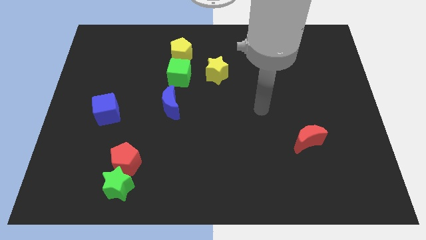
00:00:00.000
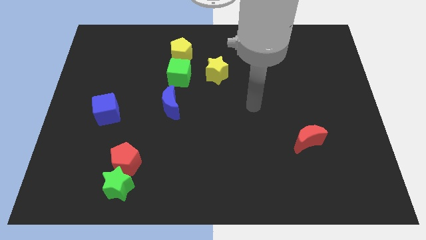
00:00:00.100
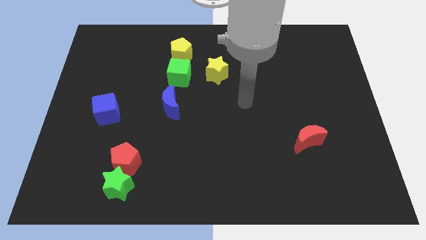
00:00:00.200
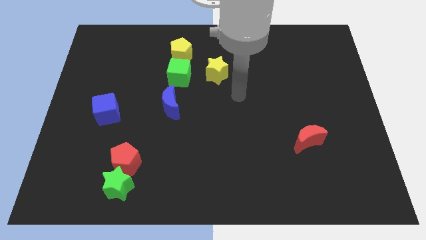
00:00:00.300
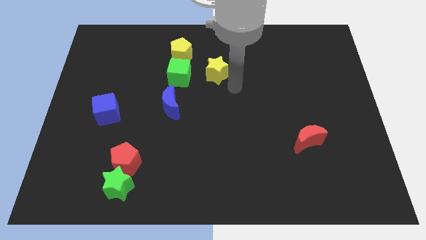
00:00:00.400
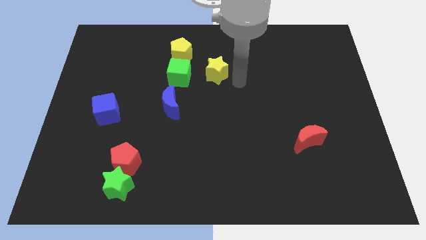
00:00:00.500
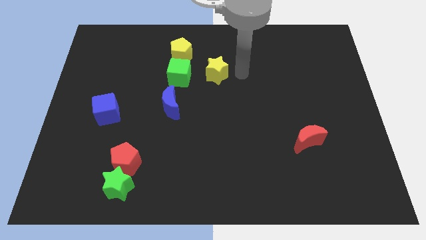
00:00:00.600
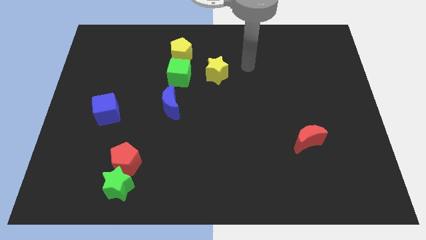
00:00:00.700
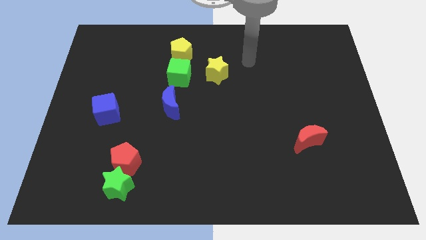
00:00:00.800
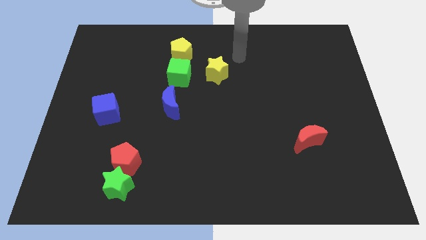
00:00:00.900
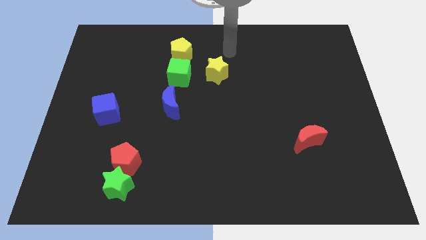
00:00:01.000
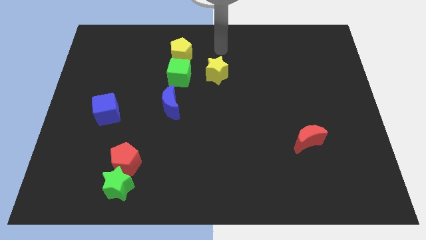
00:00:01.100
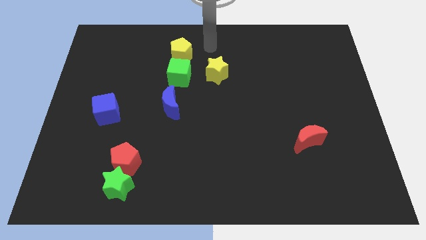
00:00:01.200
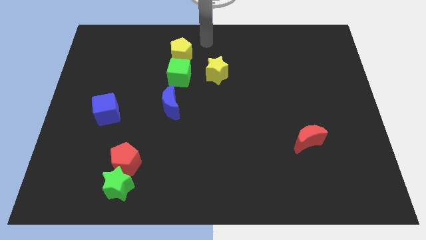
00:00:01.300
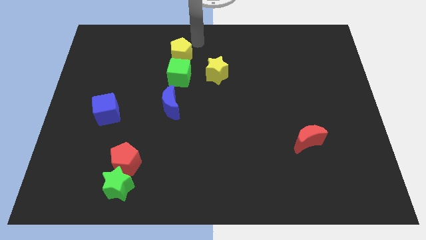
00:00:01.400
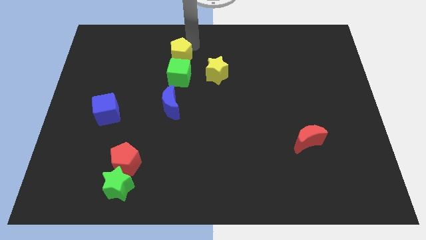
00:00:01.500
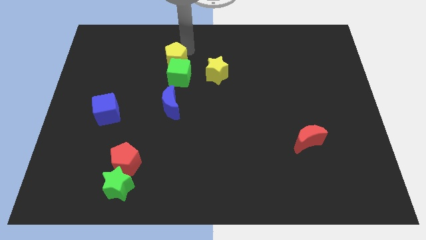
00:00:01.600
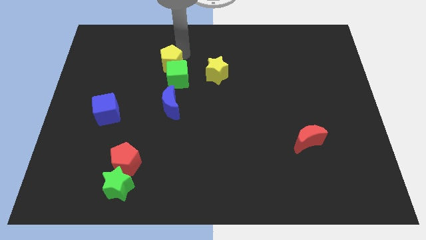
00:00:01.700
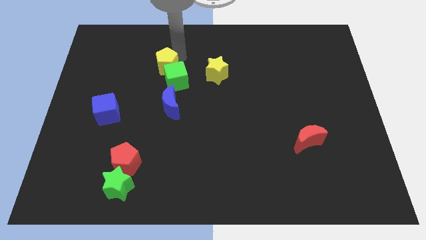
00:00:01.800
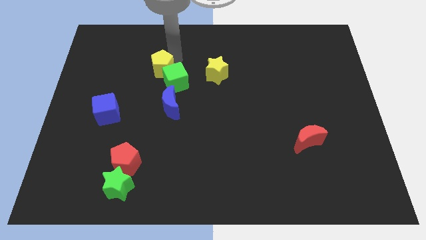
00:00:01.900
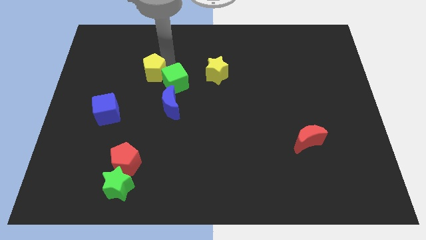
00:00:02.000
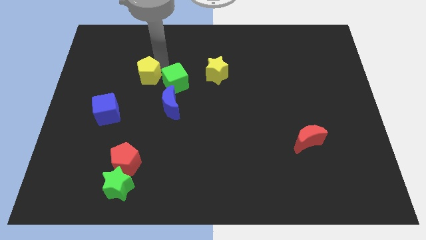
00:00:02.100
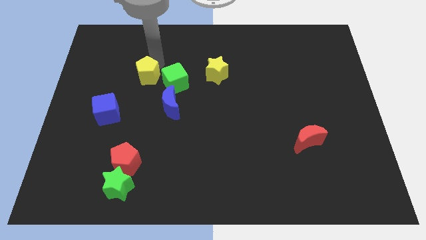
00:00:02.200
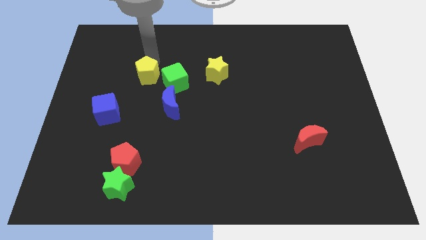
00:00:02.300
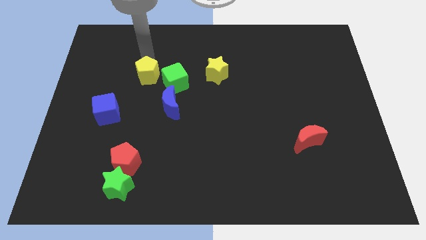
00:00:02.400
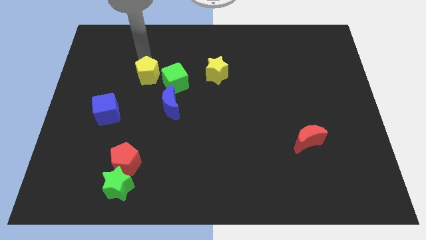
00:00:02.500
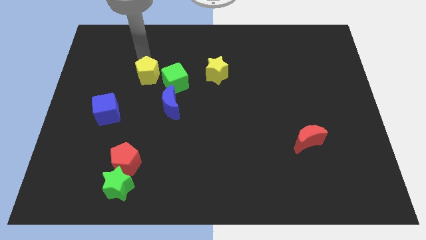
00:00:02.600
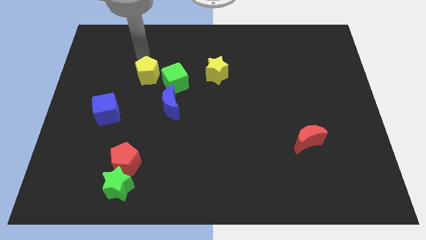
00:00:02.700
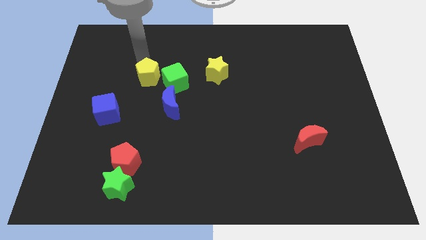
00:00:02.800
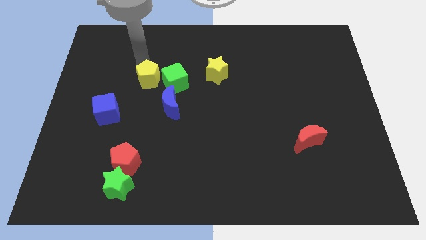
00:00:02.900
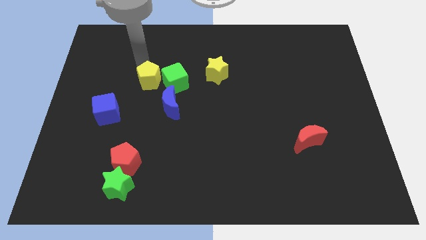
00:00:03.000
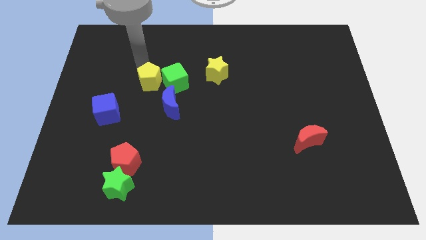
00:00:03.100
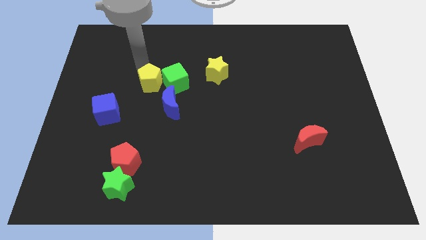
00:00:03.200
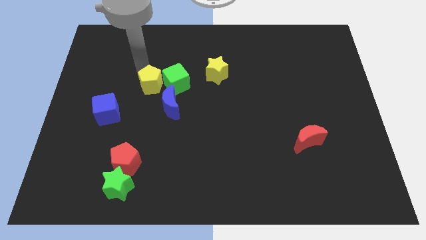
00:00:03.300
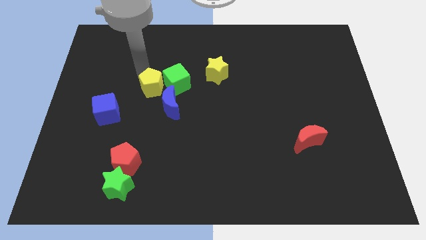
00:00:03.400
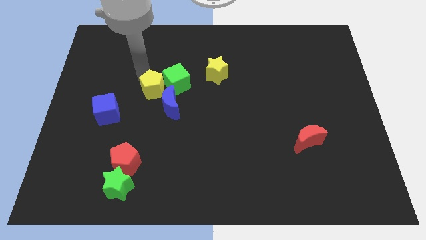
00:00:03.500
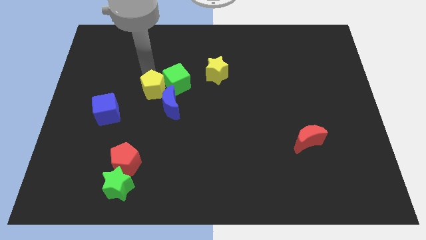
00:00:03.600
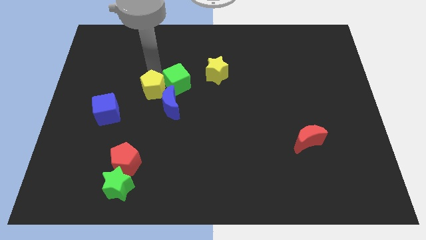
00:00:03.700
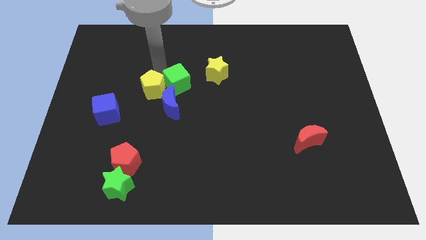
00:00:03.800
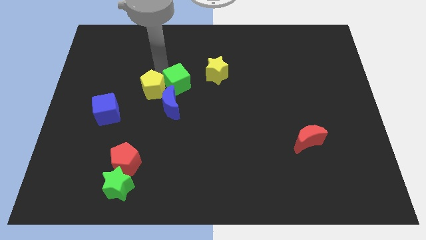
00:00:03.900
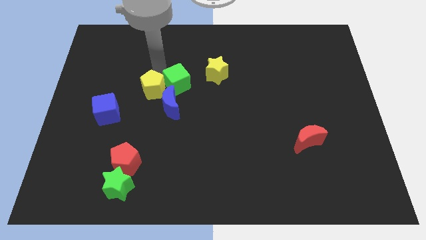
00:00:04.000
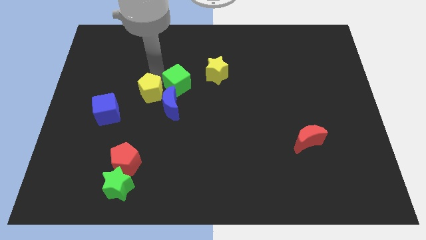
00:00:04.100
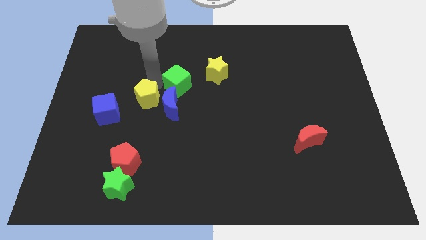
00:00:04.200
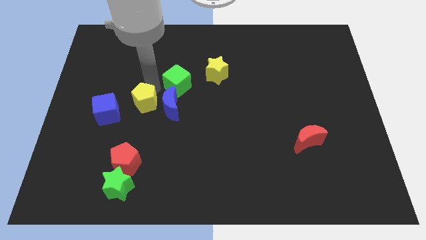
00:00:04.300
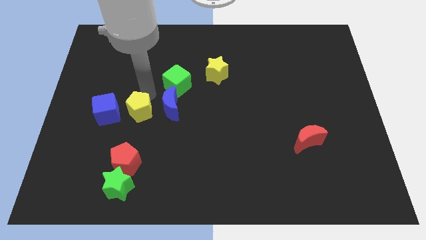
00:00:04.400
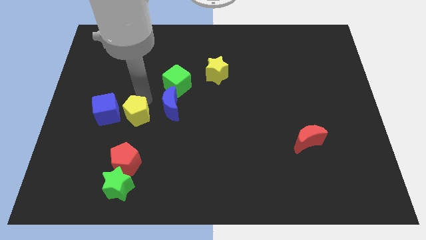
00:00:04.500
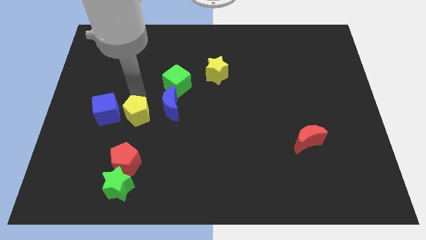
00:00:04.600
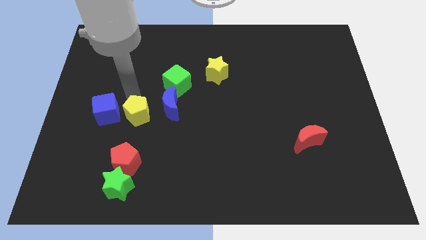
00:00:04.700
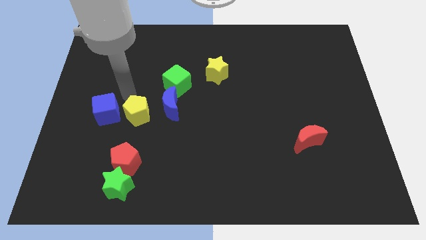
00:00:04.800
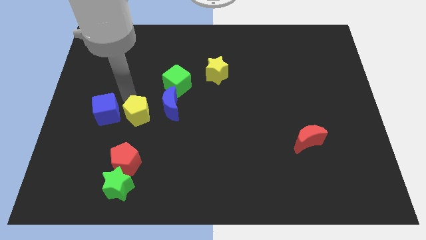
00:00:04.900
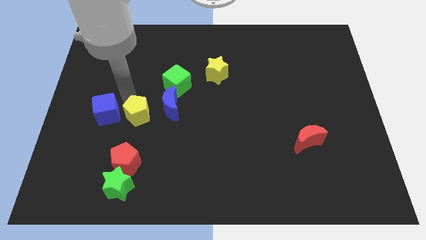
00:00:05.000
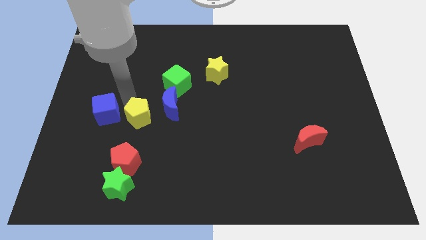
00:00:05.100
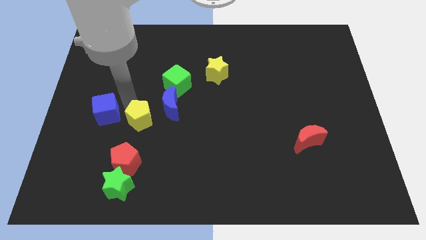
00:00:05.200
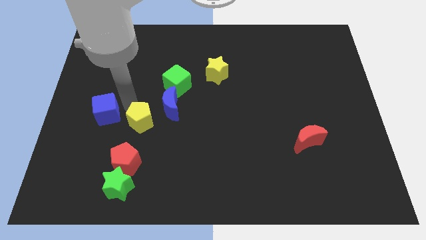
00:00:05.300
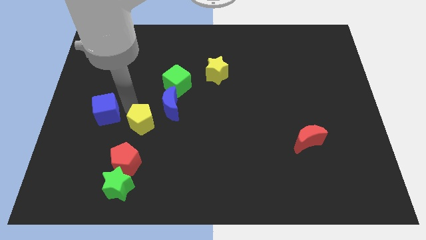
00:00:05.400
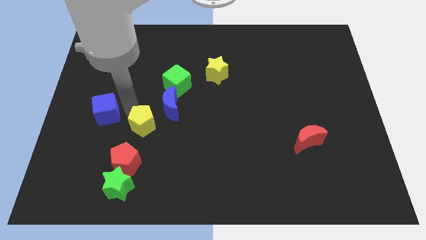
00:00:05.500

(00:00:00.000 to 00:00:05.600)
slide the yellow pentagon down

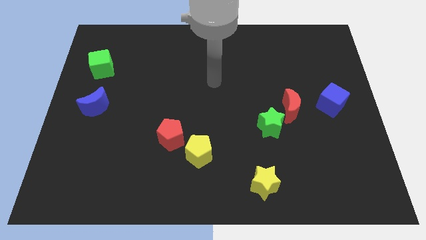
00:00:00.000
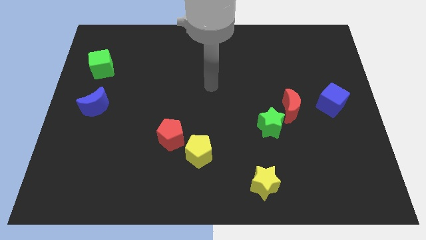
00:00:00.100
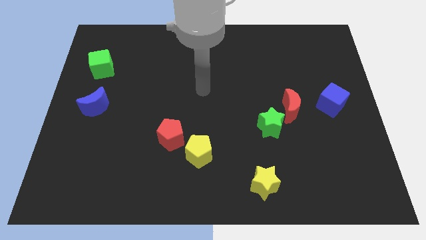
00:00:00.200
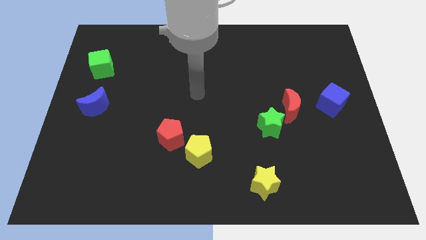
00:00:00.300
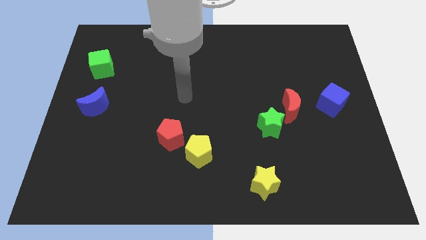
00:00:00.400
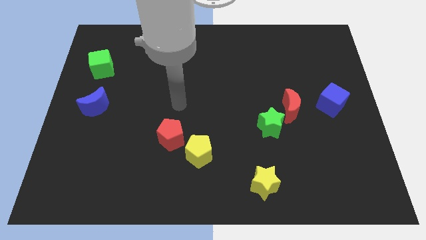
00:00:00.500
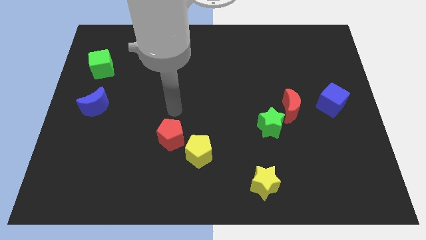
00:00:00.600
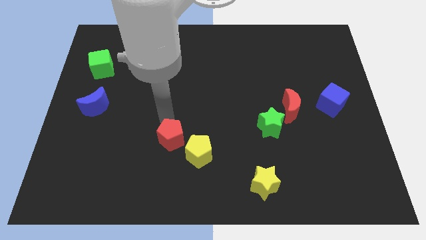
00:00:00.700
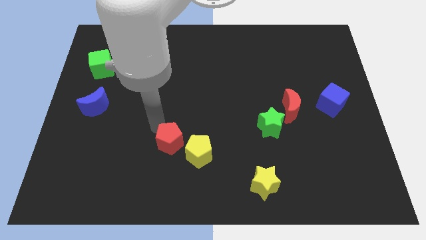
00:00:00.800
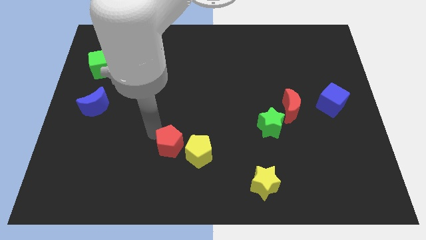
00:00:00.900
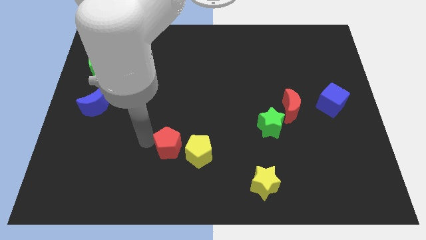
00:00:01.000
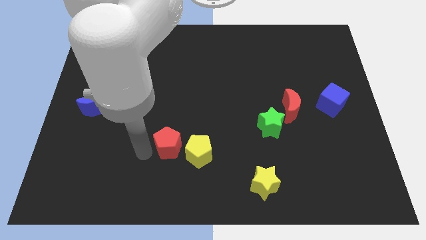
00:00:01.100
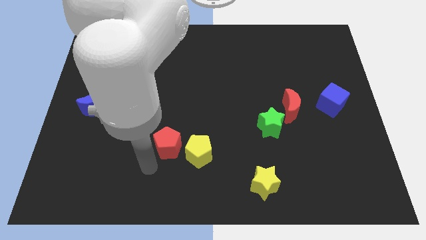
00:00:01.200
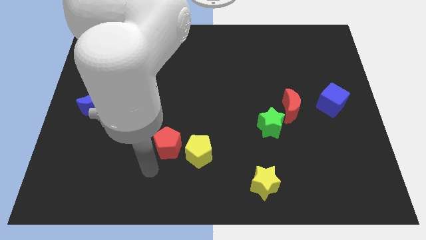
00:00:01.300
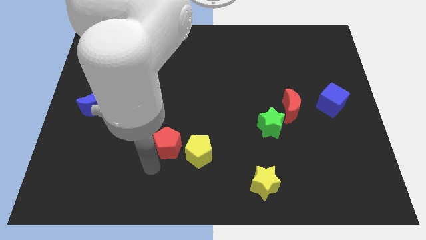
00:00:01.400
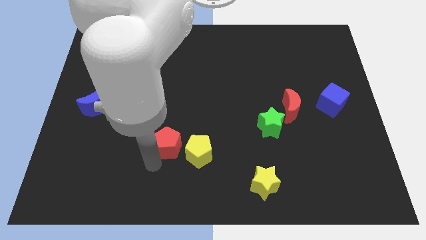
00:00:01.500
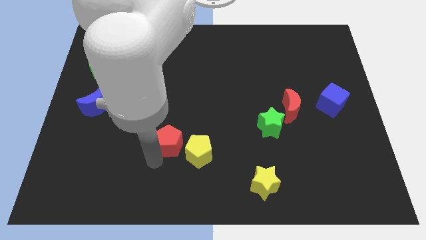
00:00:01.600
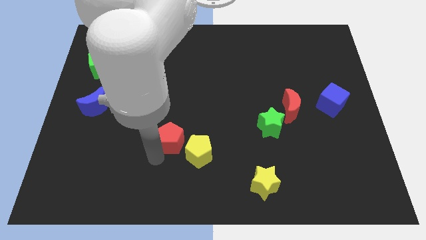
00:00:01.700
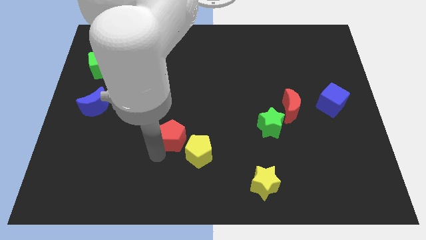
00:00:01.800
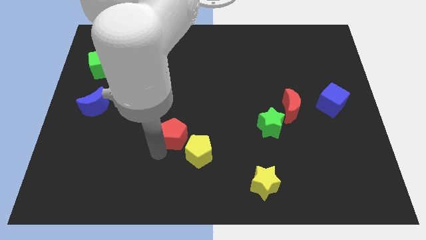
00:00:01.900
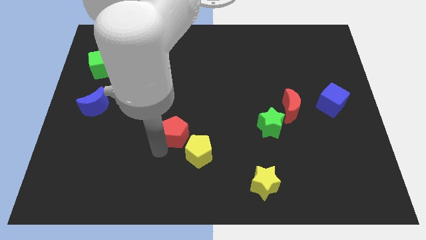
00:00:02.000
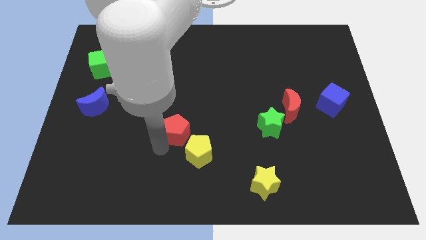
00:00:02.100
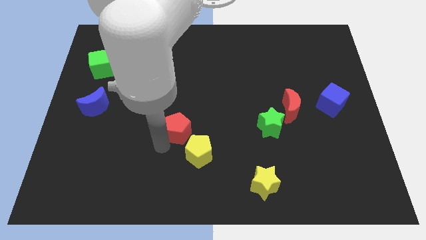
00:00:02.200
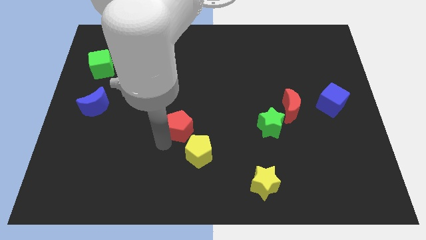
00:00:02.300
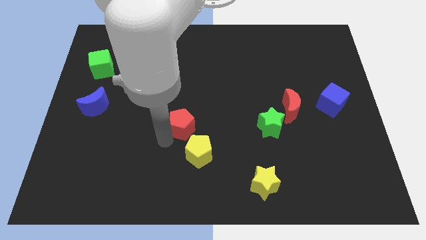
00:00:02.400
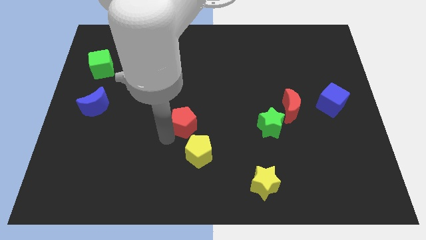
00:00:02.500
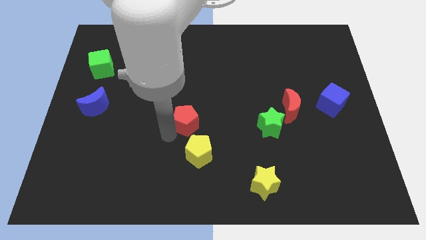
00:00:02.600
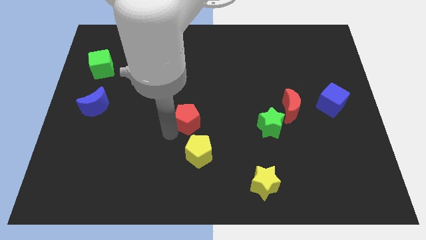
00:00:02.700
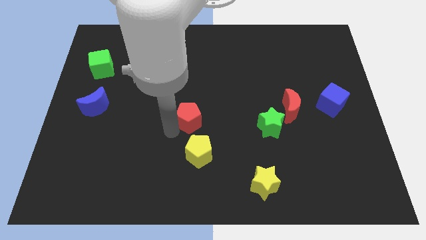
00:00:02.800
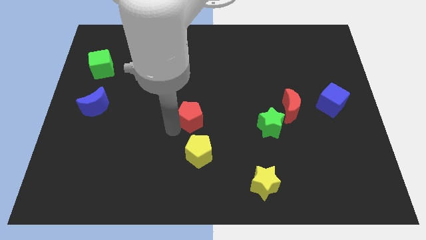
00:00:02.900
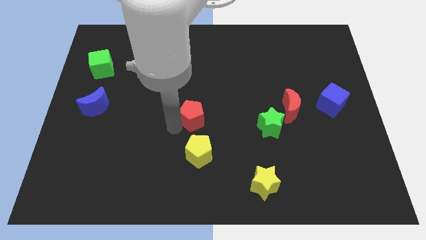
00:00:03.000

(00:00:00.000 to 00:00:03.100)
slightly slide the red pentagon up and to the right
